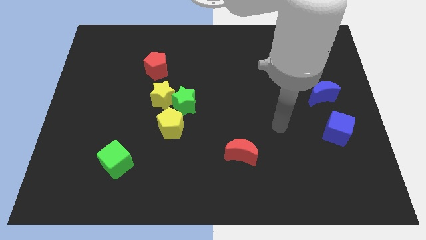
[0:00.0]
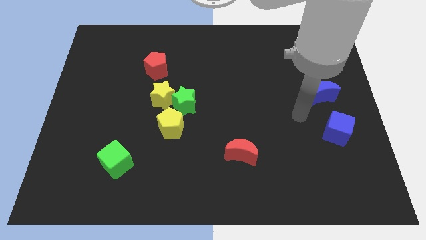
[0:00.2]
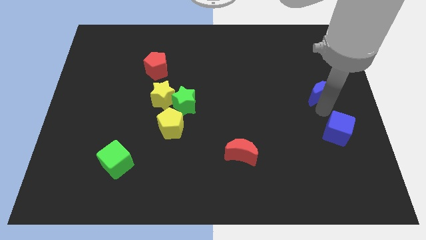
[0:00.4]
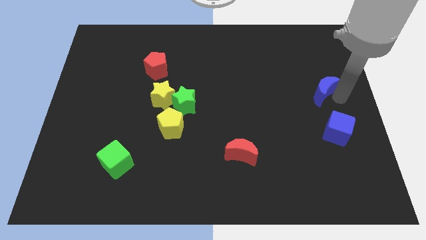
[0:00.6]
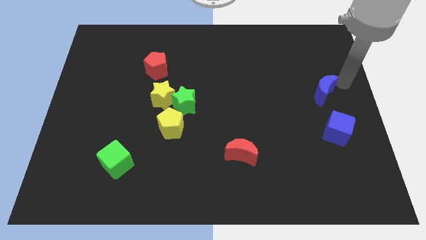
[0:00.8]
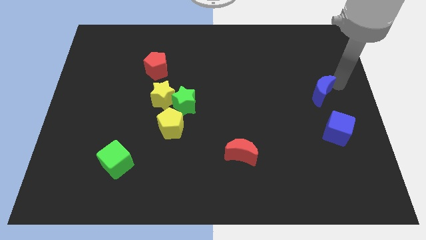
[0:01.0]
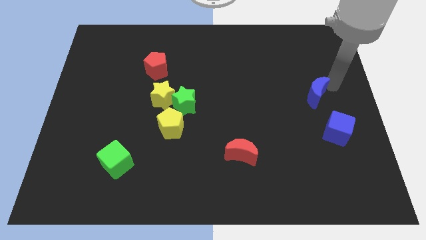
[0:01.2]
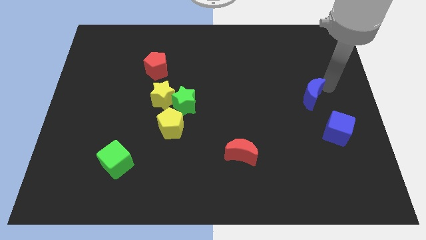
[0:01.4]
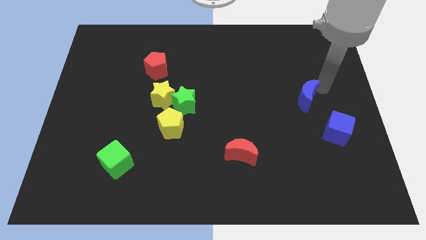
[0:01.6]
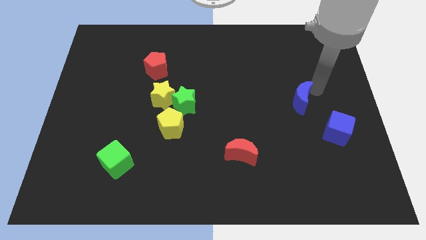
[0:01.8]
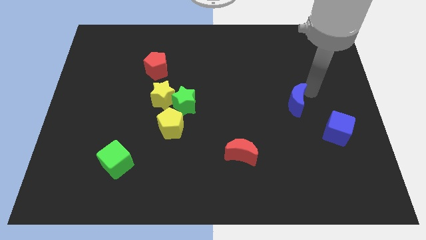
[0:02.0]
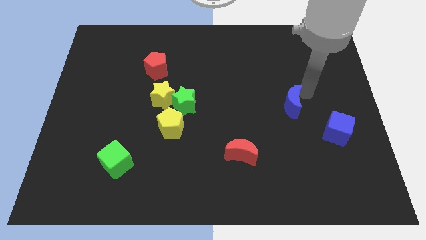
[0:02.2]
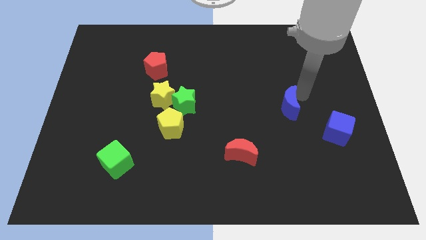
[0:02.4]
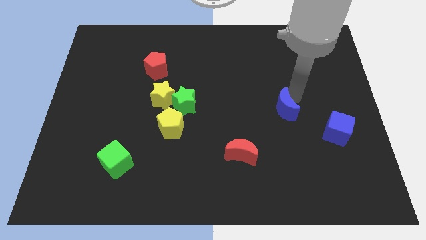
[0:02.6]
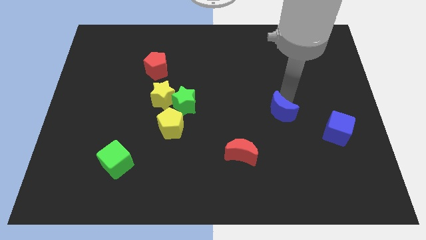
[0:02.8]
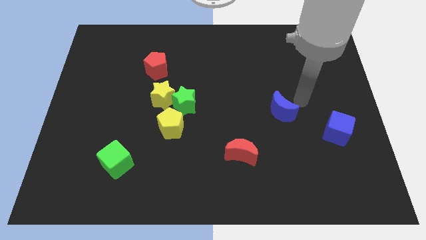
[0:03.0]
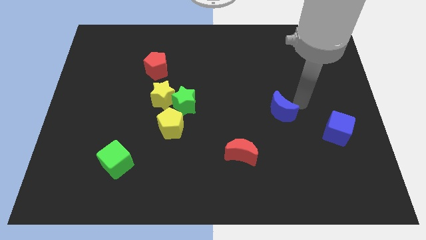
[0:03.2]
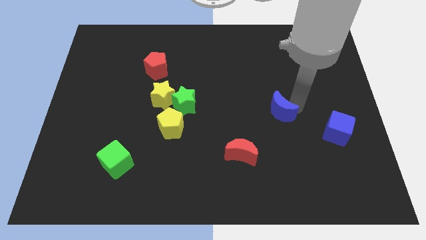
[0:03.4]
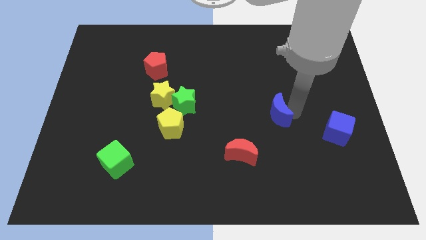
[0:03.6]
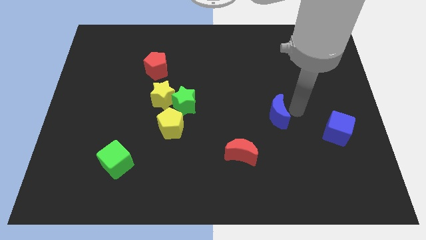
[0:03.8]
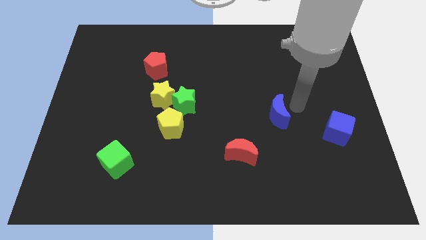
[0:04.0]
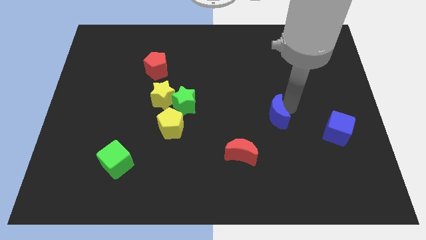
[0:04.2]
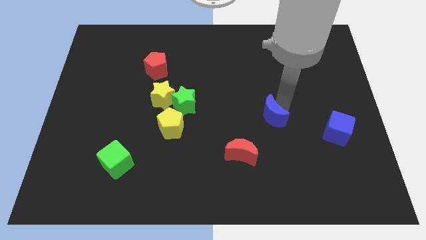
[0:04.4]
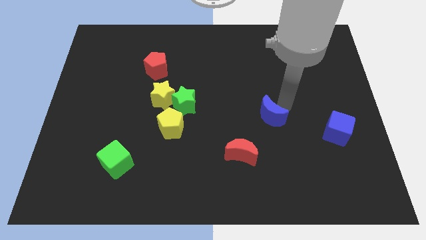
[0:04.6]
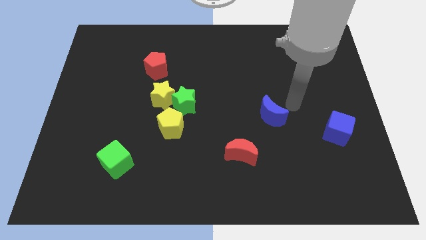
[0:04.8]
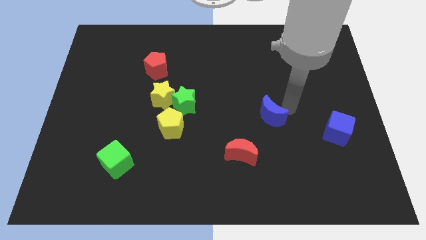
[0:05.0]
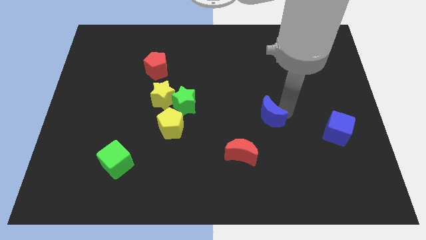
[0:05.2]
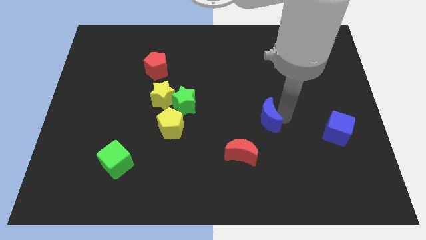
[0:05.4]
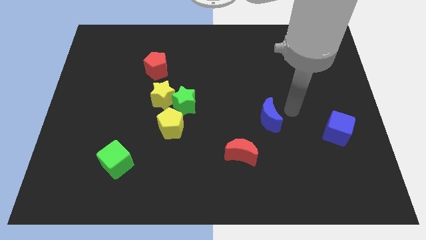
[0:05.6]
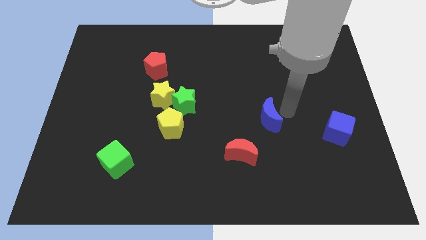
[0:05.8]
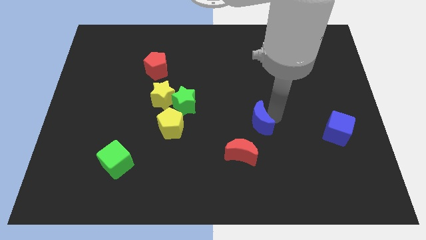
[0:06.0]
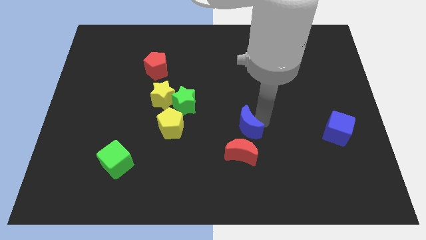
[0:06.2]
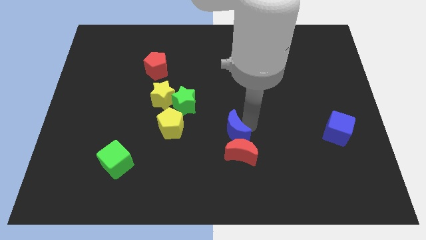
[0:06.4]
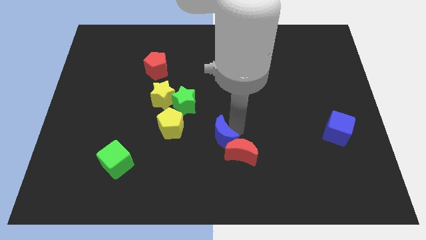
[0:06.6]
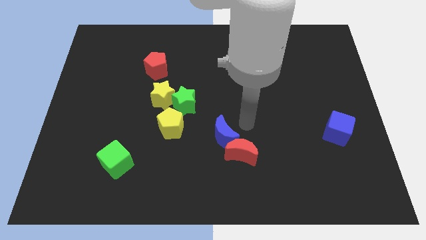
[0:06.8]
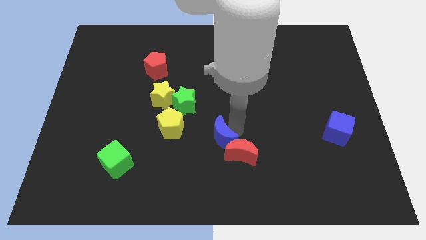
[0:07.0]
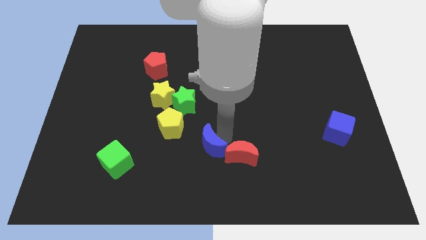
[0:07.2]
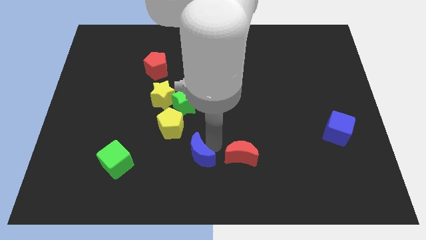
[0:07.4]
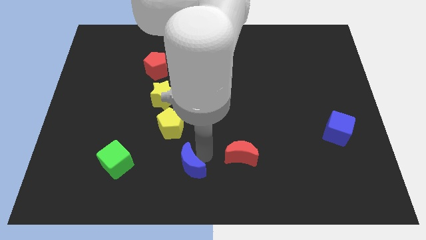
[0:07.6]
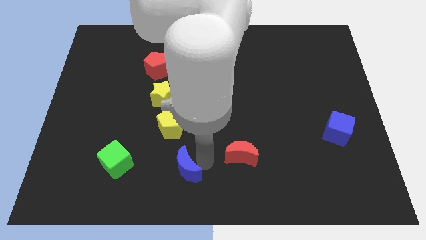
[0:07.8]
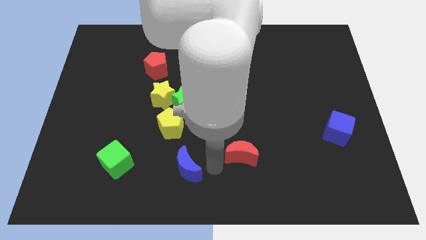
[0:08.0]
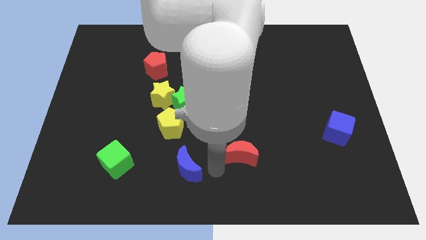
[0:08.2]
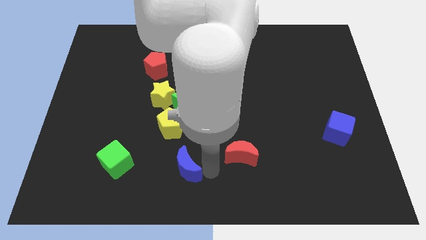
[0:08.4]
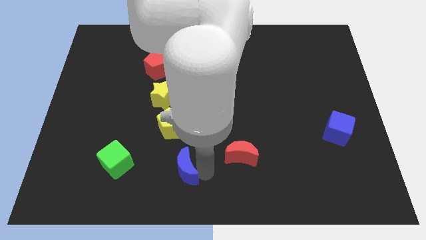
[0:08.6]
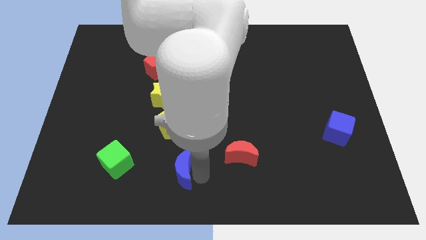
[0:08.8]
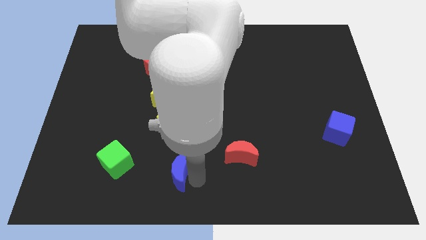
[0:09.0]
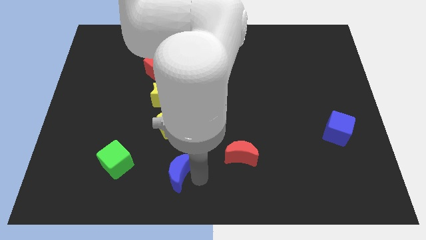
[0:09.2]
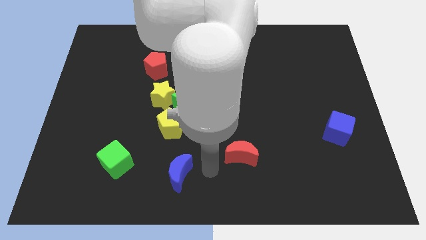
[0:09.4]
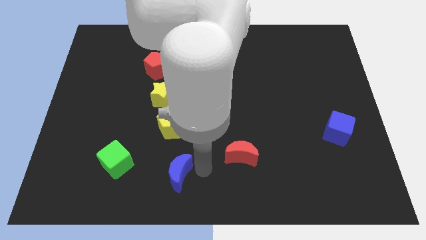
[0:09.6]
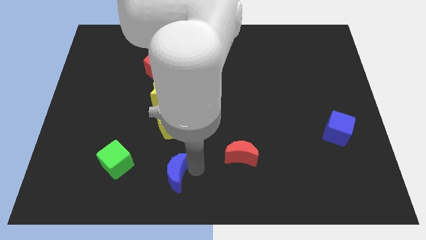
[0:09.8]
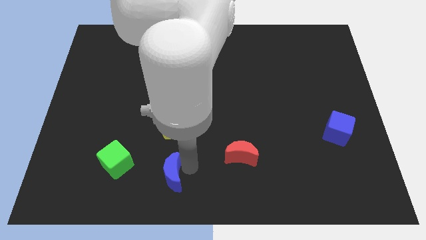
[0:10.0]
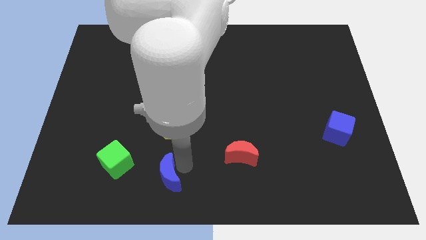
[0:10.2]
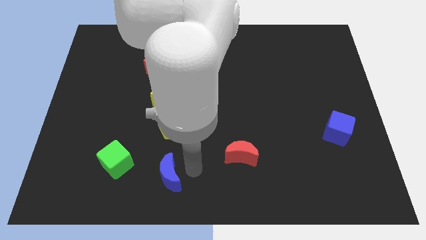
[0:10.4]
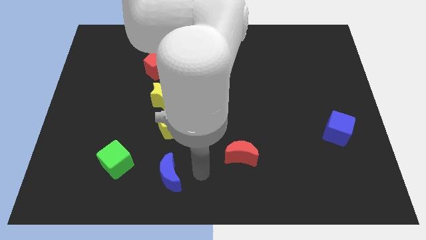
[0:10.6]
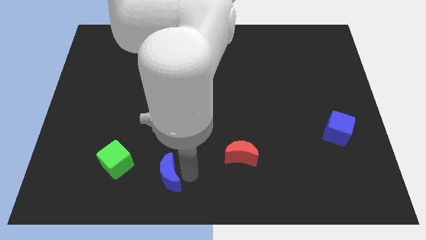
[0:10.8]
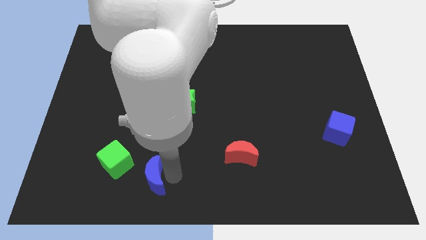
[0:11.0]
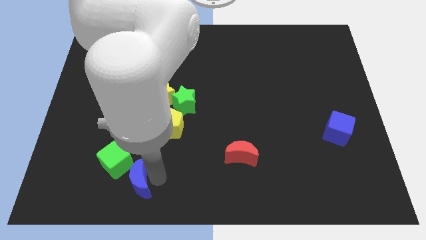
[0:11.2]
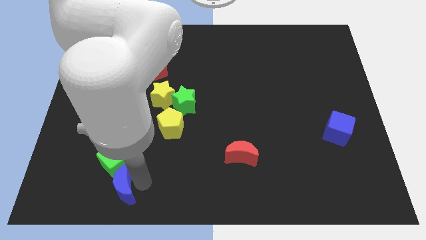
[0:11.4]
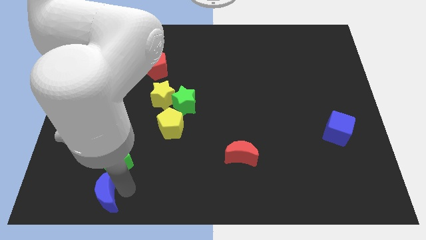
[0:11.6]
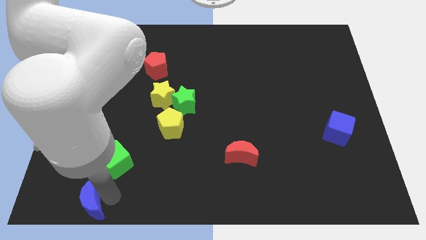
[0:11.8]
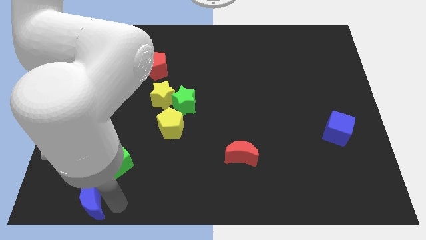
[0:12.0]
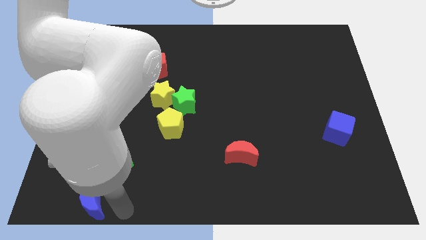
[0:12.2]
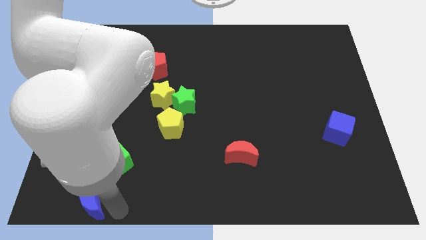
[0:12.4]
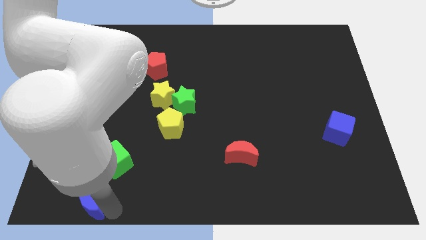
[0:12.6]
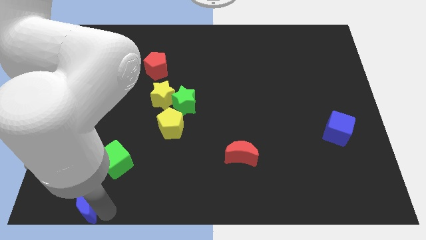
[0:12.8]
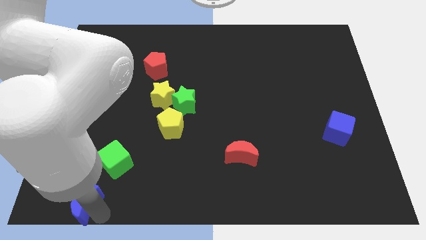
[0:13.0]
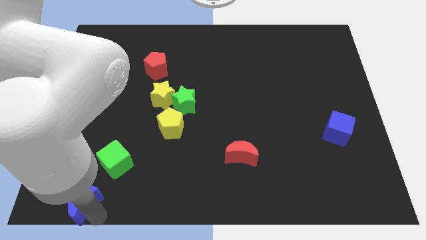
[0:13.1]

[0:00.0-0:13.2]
slide the blue moon to the lower left corner
